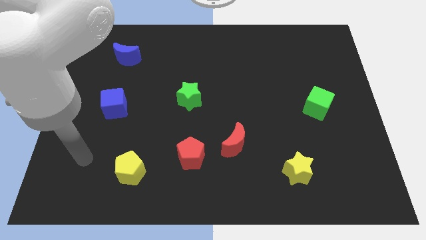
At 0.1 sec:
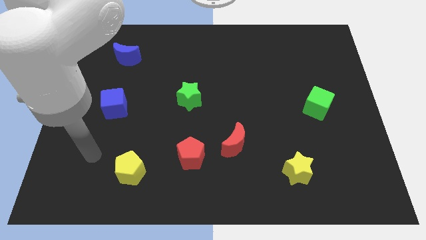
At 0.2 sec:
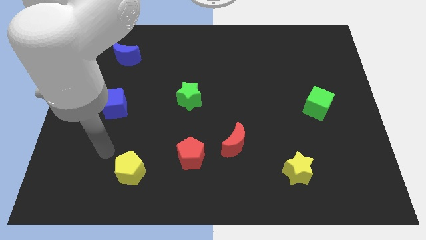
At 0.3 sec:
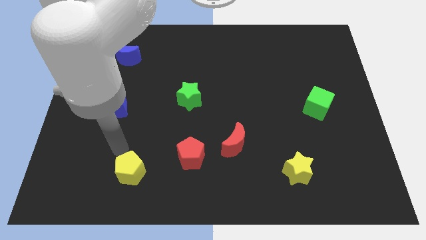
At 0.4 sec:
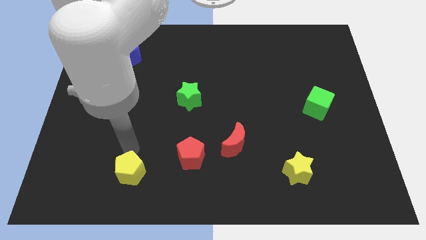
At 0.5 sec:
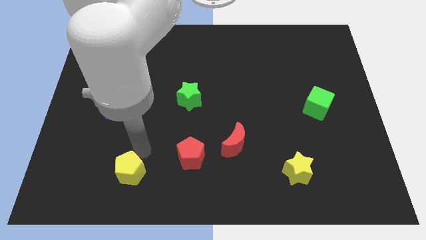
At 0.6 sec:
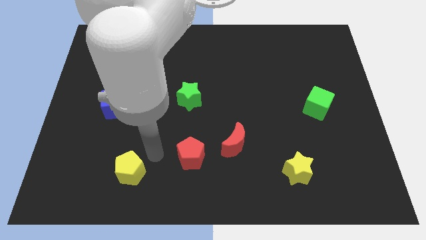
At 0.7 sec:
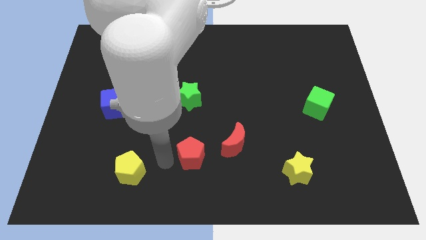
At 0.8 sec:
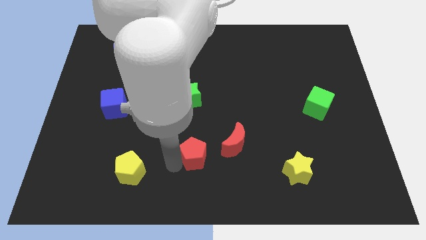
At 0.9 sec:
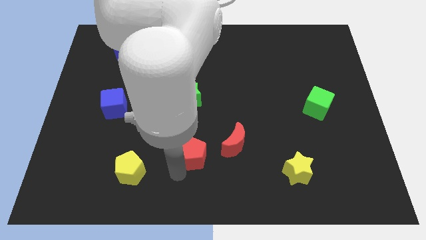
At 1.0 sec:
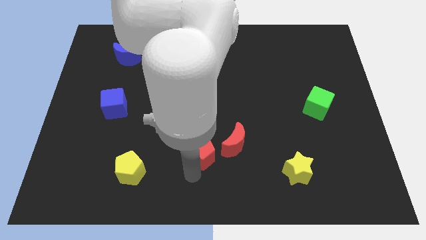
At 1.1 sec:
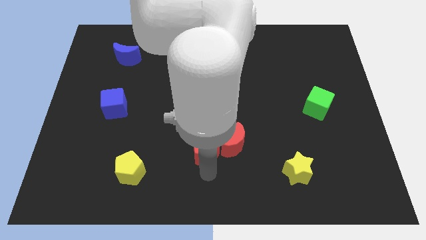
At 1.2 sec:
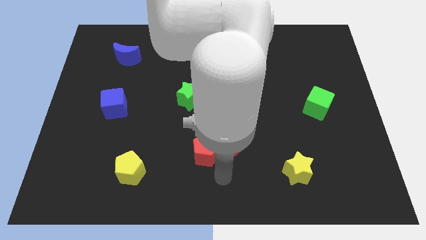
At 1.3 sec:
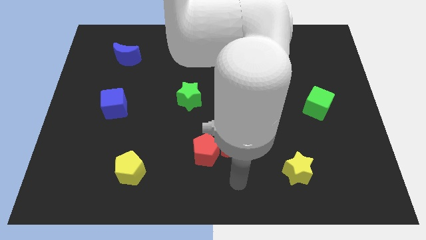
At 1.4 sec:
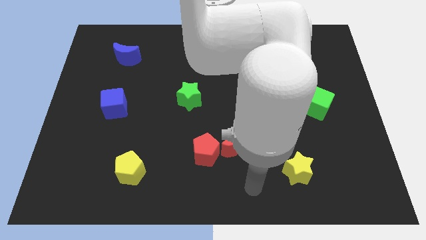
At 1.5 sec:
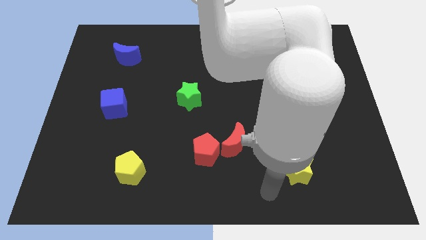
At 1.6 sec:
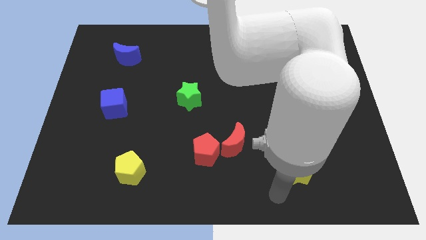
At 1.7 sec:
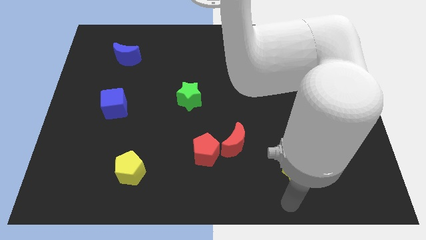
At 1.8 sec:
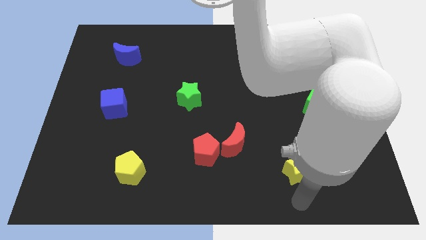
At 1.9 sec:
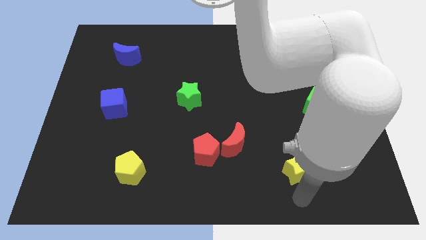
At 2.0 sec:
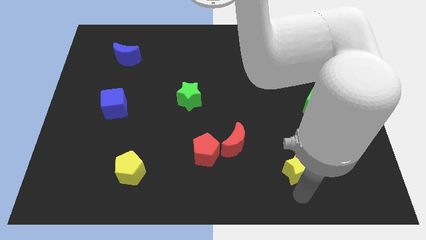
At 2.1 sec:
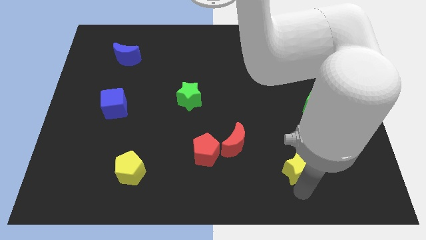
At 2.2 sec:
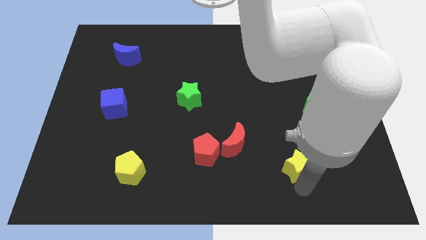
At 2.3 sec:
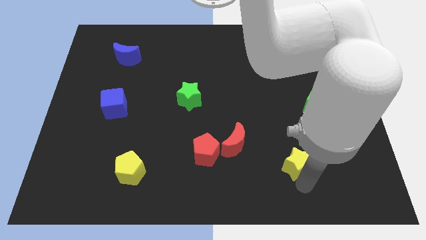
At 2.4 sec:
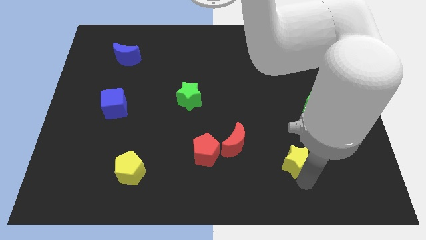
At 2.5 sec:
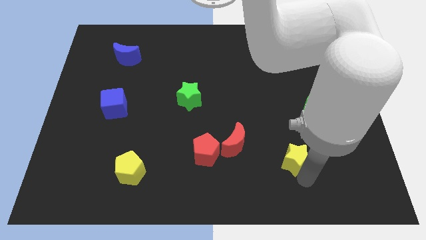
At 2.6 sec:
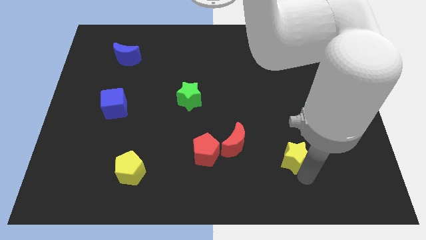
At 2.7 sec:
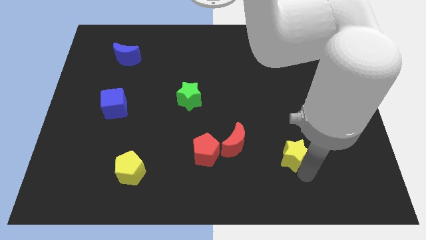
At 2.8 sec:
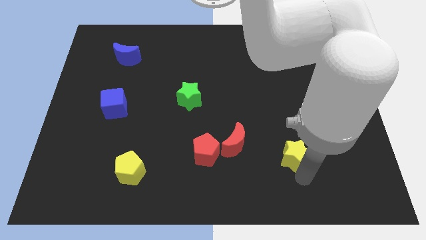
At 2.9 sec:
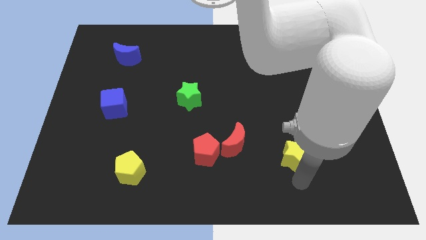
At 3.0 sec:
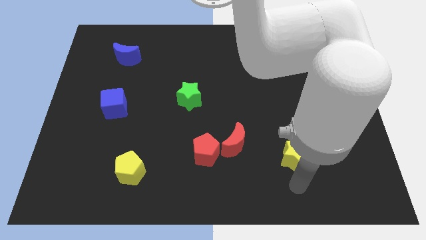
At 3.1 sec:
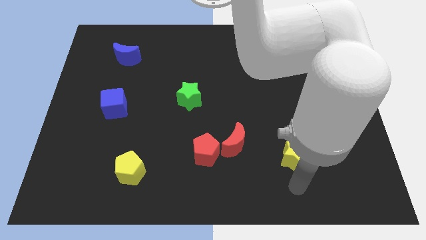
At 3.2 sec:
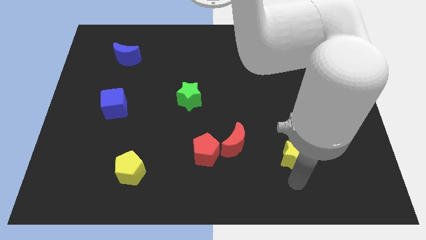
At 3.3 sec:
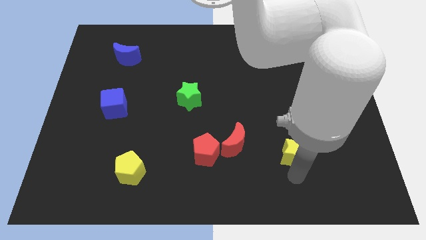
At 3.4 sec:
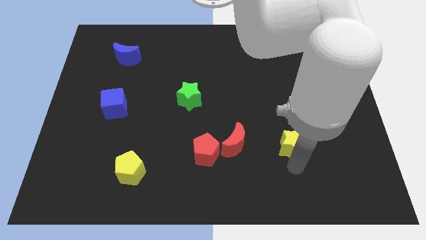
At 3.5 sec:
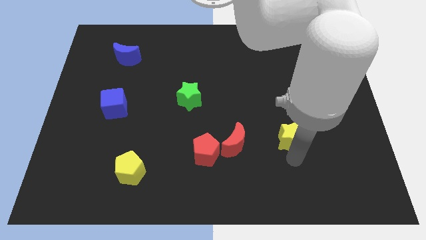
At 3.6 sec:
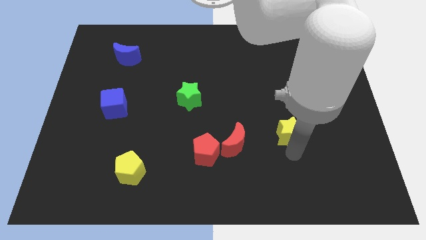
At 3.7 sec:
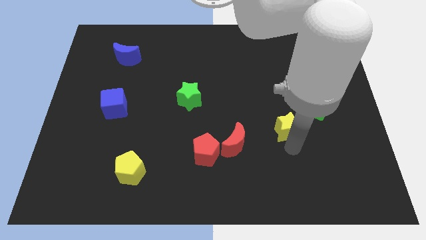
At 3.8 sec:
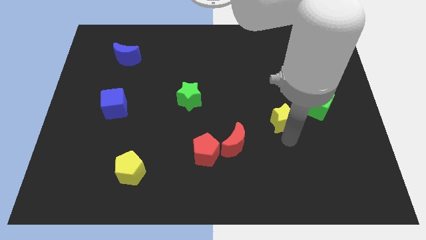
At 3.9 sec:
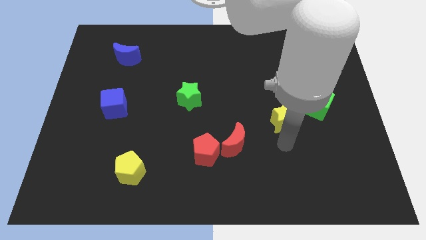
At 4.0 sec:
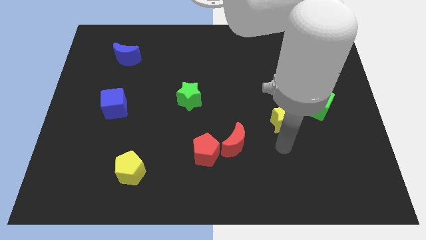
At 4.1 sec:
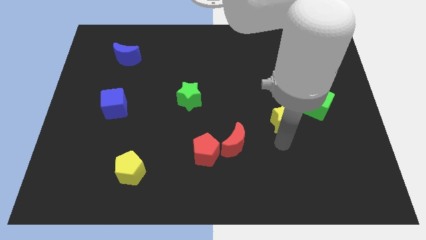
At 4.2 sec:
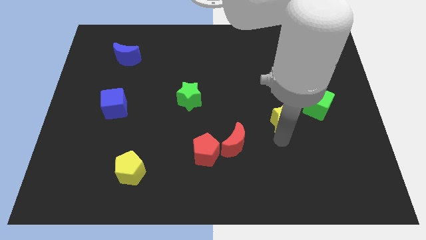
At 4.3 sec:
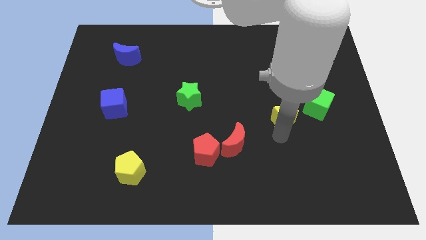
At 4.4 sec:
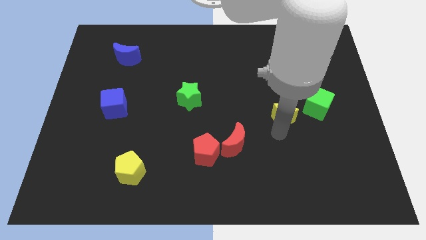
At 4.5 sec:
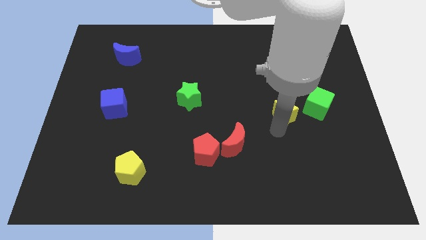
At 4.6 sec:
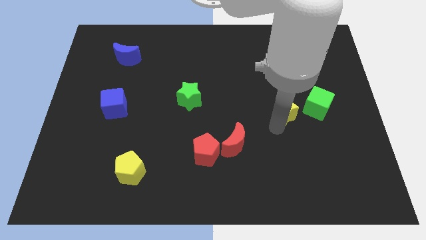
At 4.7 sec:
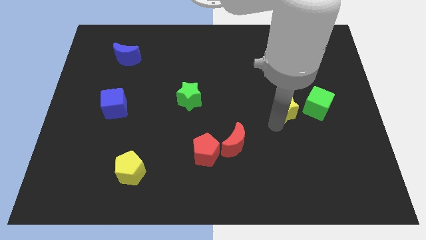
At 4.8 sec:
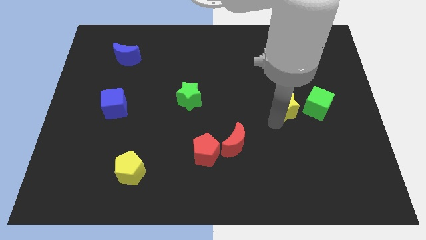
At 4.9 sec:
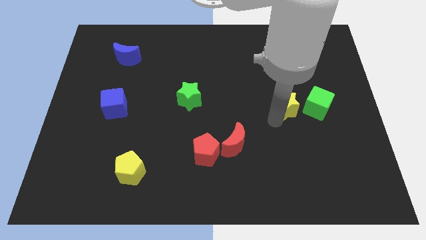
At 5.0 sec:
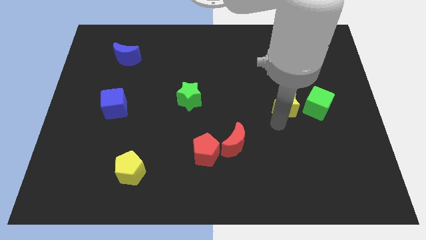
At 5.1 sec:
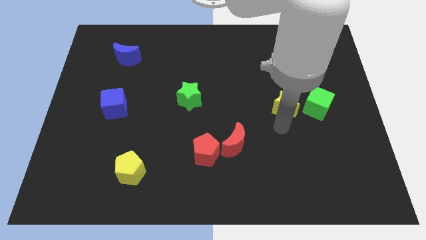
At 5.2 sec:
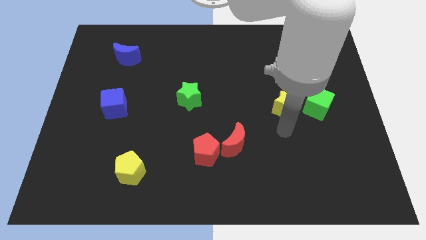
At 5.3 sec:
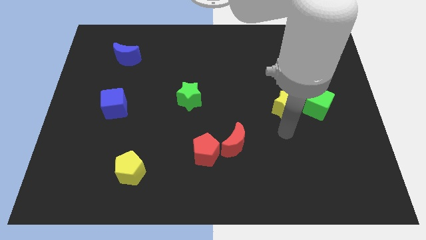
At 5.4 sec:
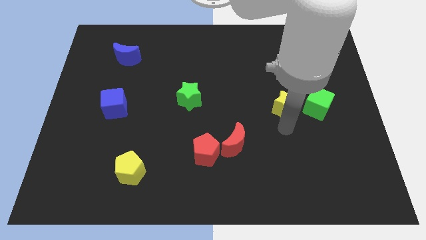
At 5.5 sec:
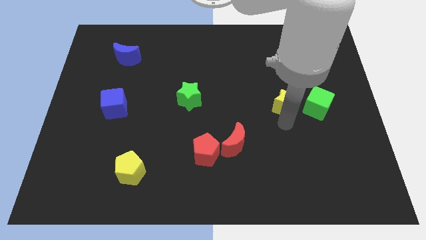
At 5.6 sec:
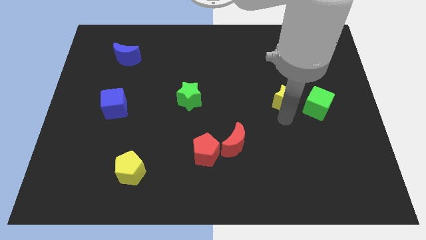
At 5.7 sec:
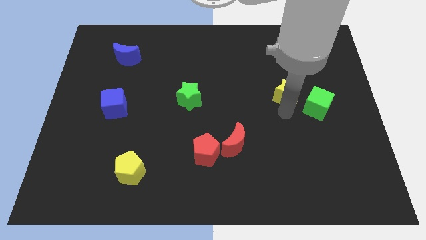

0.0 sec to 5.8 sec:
push the yellow star up

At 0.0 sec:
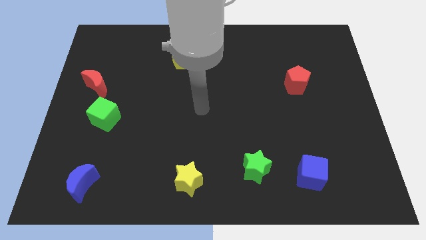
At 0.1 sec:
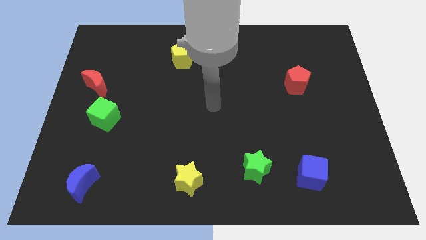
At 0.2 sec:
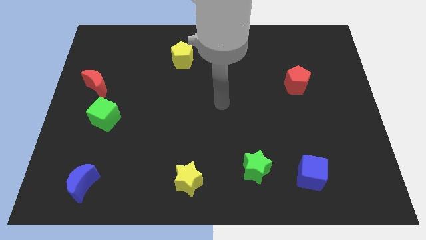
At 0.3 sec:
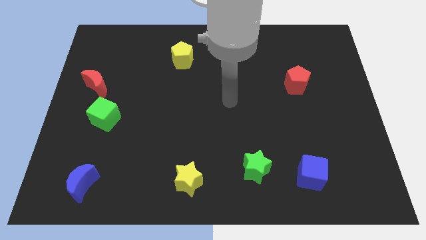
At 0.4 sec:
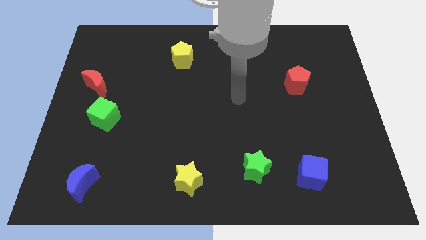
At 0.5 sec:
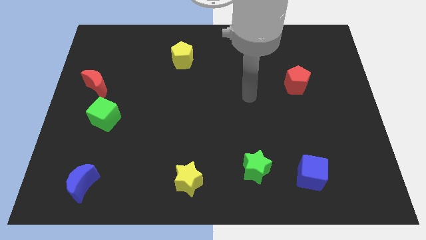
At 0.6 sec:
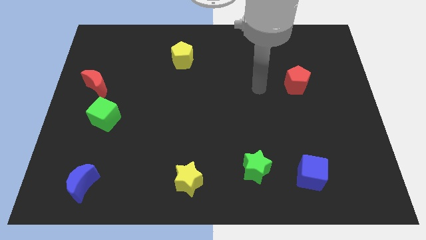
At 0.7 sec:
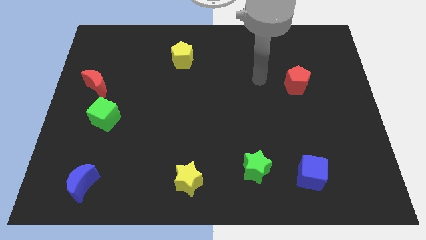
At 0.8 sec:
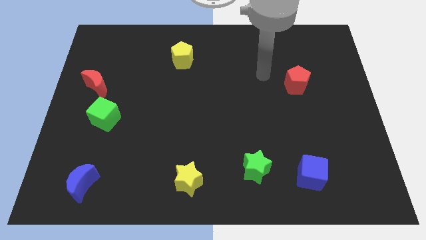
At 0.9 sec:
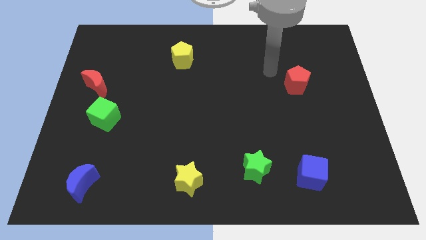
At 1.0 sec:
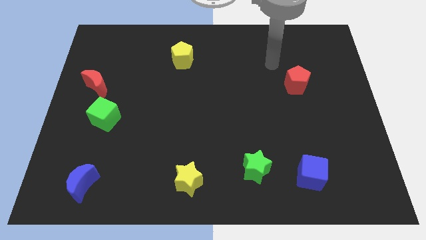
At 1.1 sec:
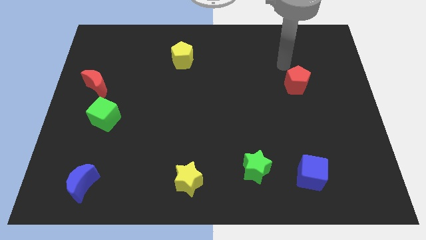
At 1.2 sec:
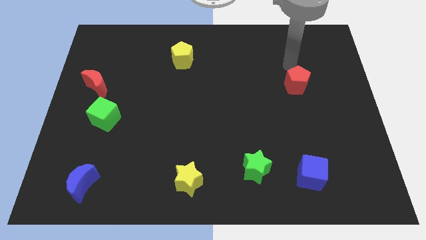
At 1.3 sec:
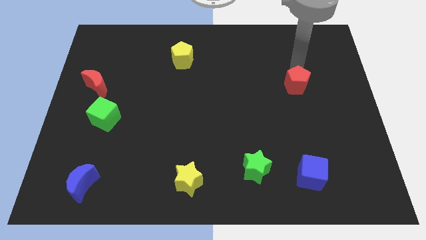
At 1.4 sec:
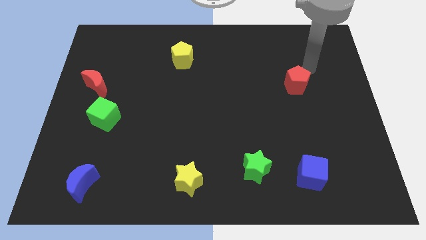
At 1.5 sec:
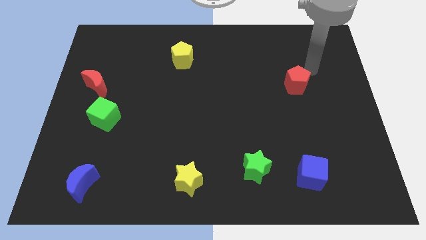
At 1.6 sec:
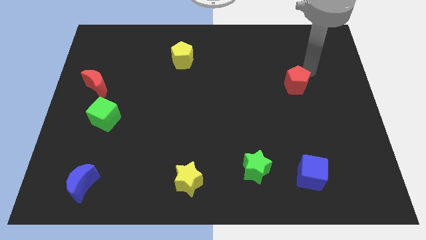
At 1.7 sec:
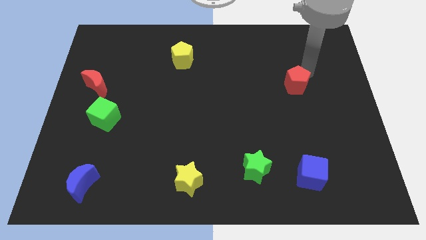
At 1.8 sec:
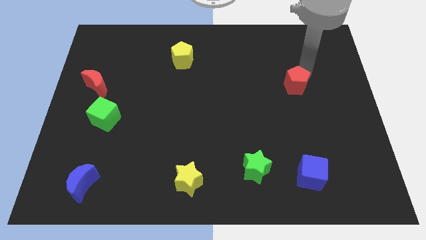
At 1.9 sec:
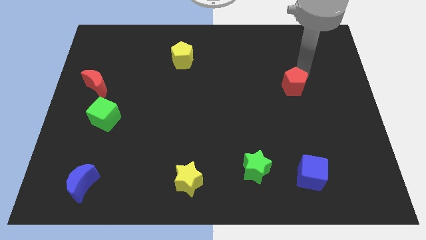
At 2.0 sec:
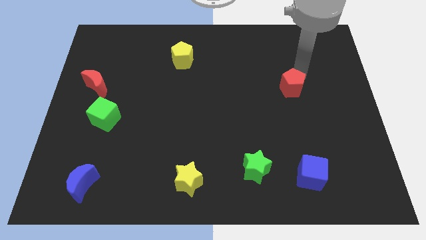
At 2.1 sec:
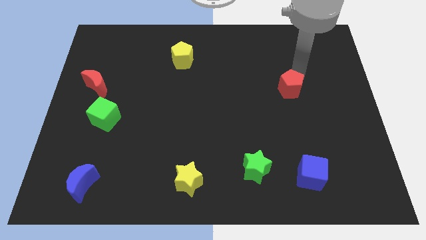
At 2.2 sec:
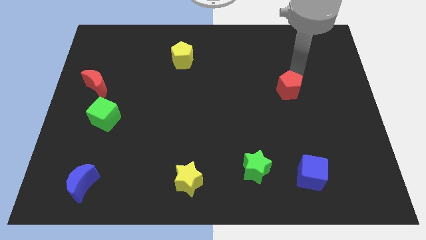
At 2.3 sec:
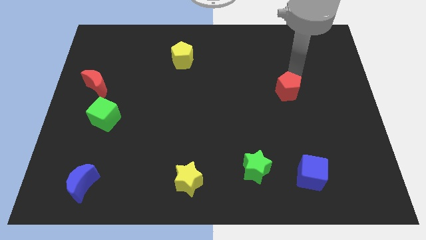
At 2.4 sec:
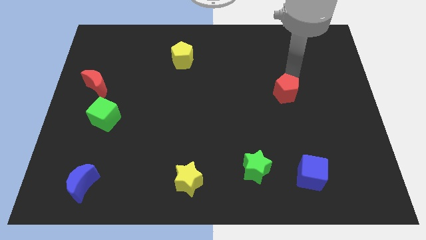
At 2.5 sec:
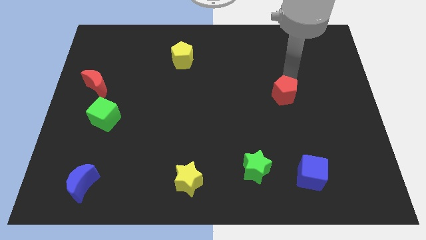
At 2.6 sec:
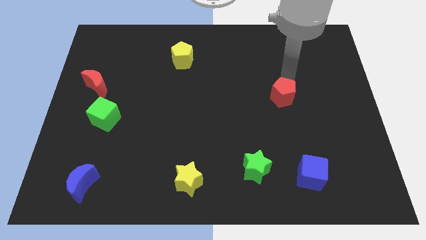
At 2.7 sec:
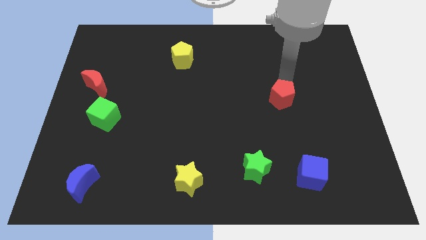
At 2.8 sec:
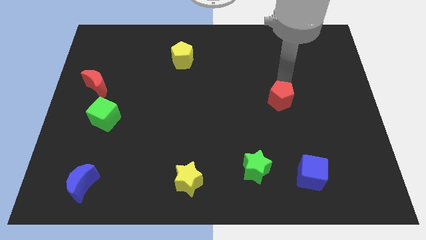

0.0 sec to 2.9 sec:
slightly push the red pentagon downwards and then left
